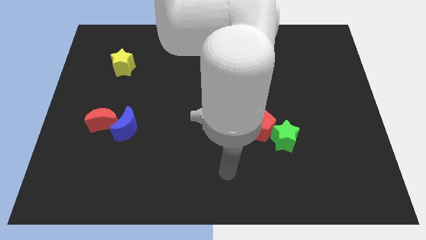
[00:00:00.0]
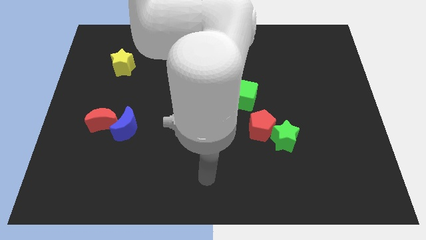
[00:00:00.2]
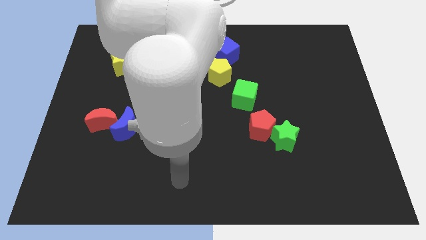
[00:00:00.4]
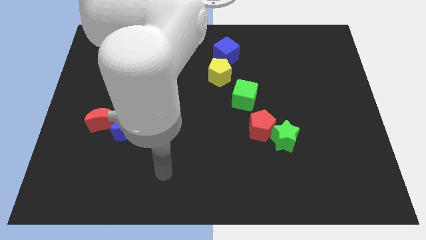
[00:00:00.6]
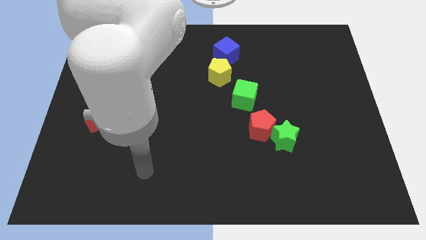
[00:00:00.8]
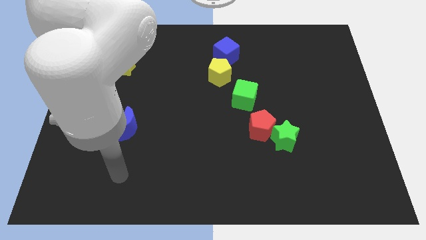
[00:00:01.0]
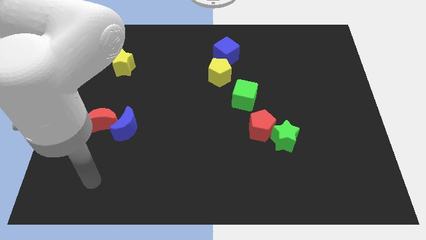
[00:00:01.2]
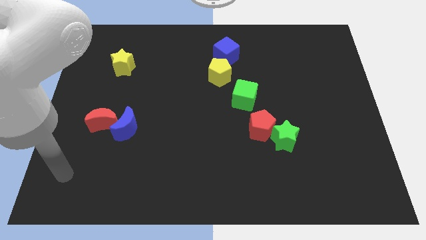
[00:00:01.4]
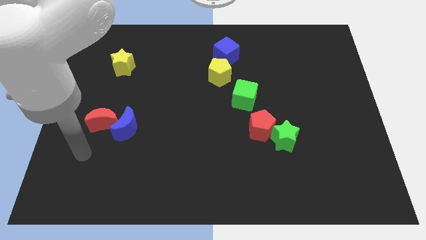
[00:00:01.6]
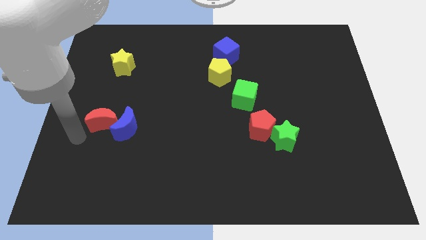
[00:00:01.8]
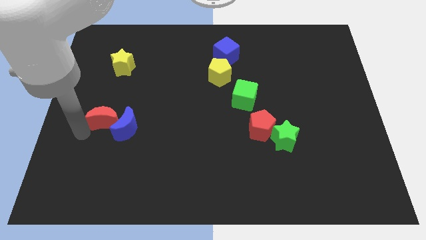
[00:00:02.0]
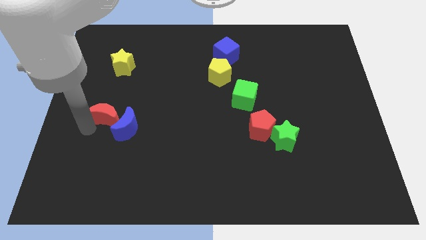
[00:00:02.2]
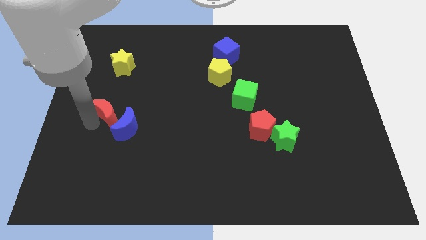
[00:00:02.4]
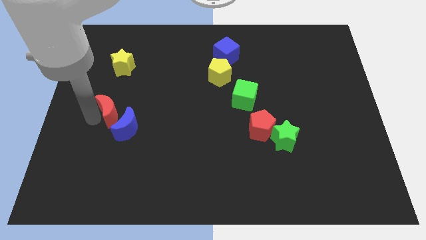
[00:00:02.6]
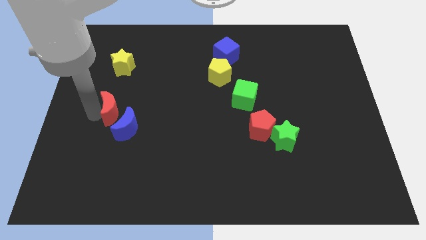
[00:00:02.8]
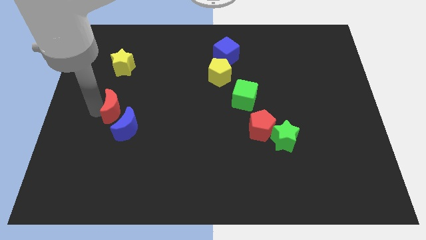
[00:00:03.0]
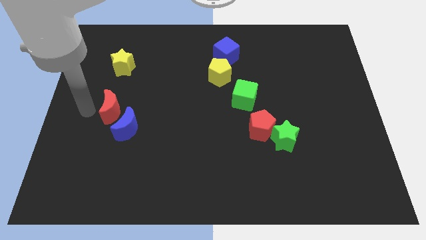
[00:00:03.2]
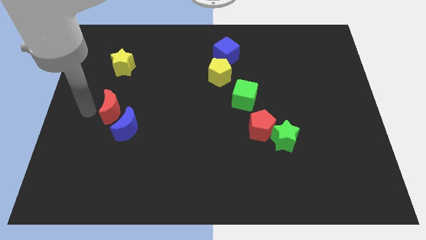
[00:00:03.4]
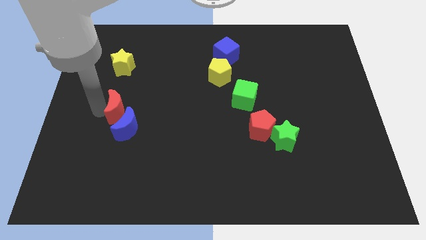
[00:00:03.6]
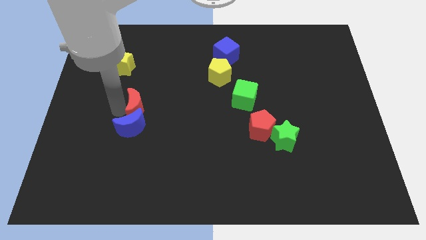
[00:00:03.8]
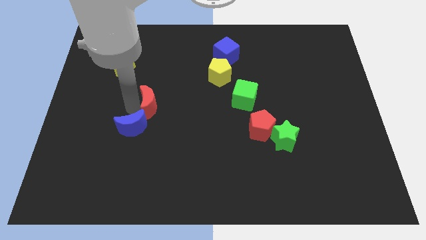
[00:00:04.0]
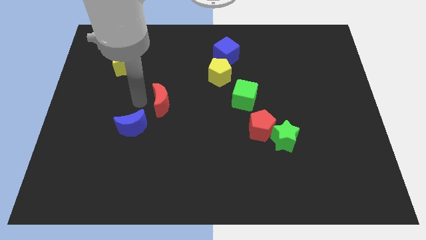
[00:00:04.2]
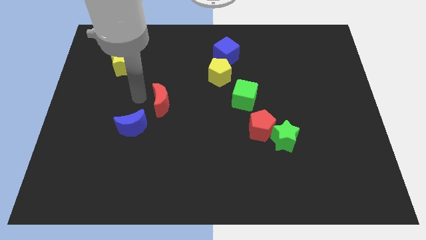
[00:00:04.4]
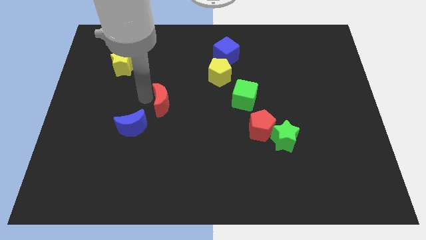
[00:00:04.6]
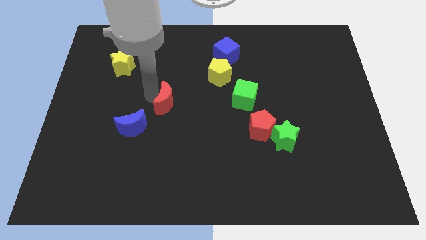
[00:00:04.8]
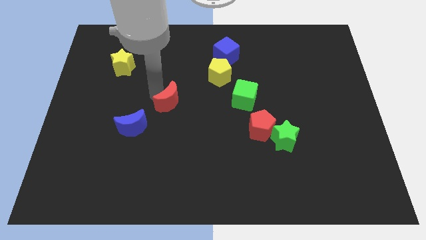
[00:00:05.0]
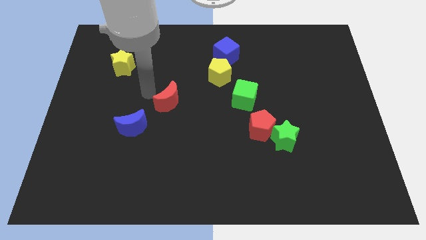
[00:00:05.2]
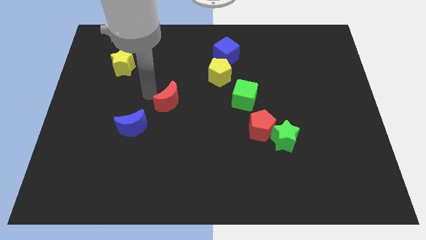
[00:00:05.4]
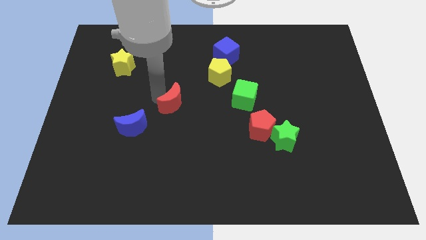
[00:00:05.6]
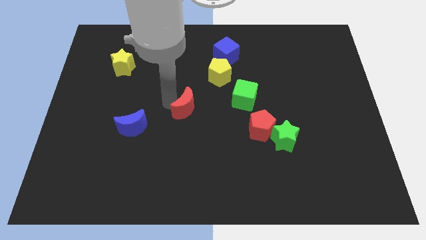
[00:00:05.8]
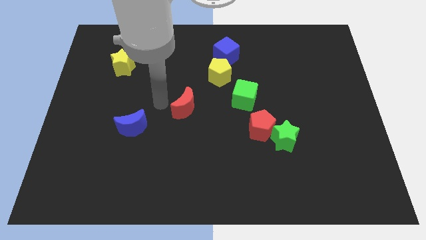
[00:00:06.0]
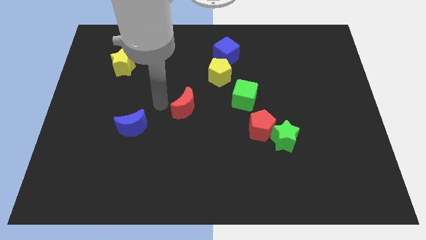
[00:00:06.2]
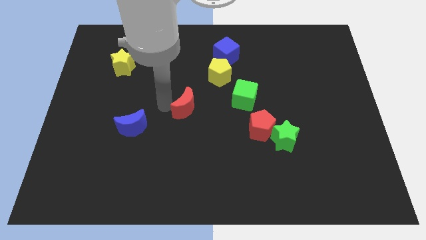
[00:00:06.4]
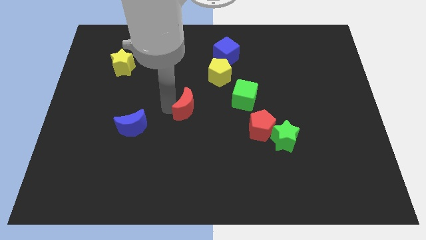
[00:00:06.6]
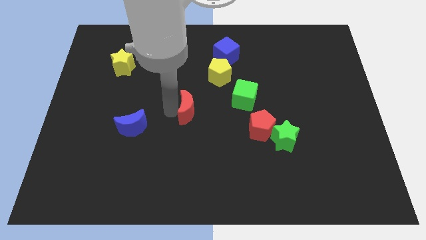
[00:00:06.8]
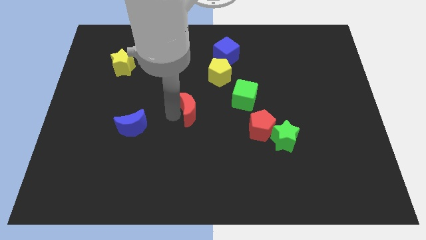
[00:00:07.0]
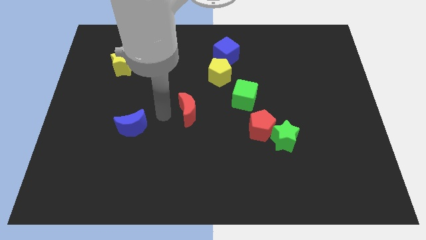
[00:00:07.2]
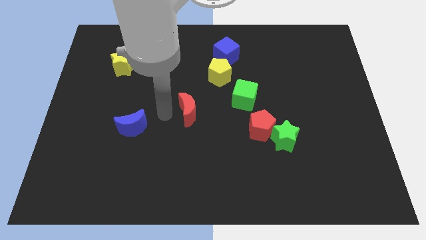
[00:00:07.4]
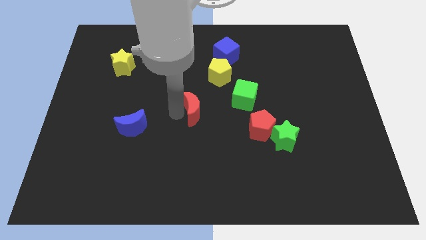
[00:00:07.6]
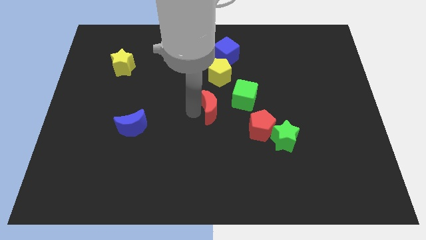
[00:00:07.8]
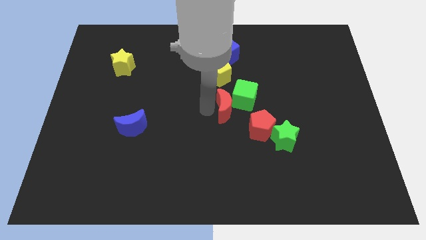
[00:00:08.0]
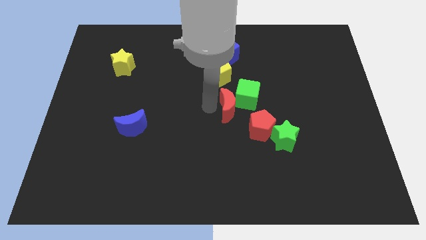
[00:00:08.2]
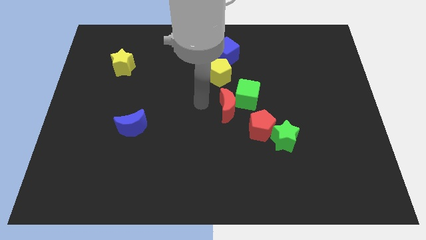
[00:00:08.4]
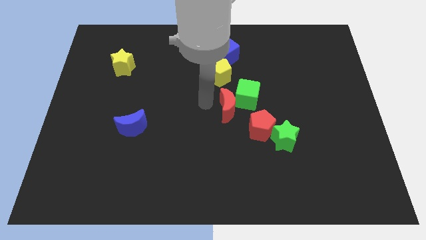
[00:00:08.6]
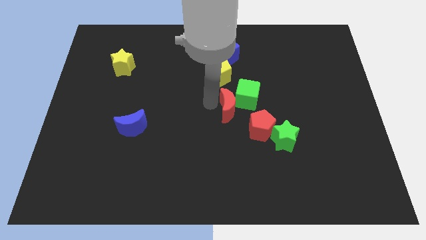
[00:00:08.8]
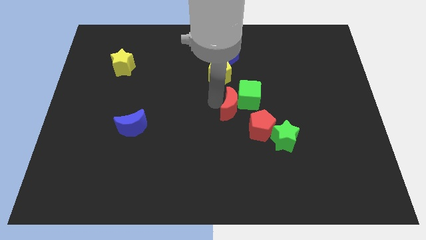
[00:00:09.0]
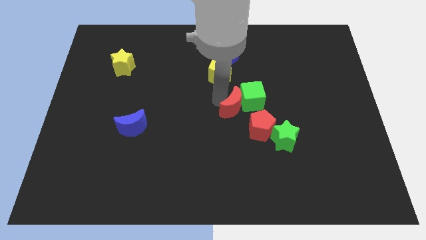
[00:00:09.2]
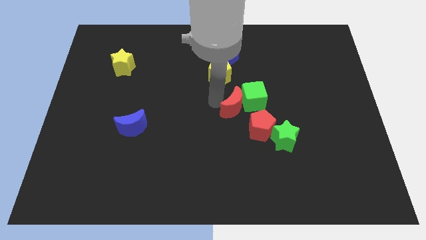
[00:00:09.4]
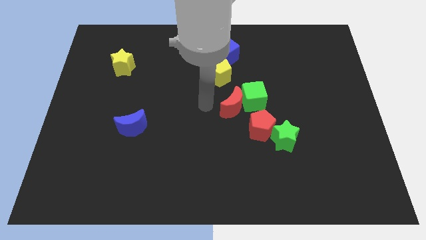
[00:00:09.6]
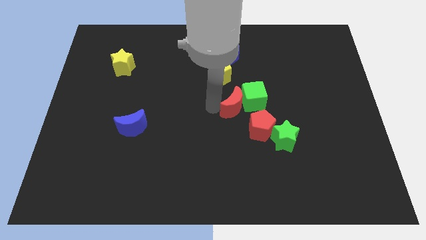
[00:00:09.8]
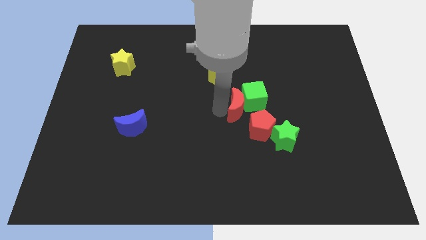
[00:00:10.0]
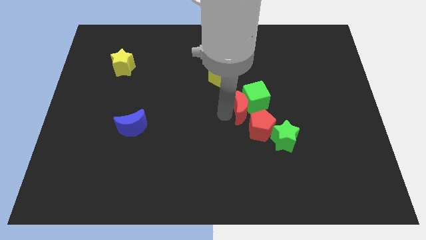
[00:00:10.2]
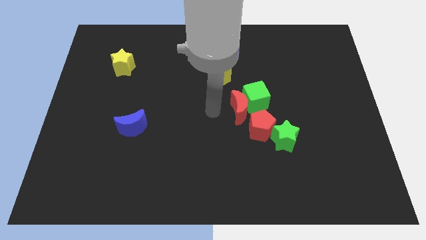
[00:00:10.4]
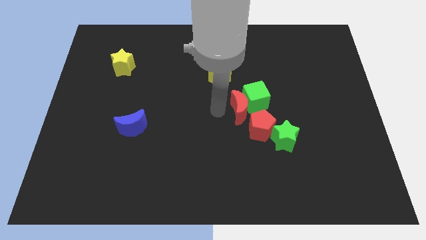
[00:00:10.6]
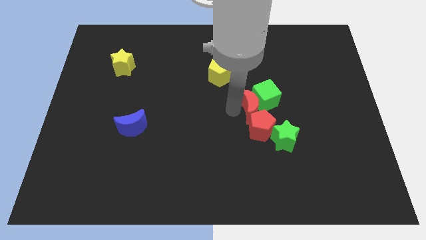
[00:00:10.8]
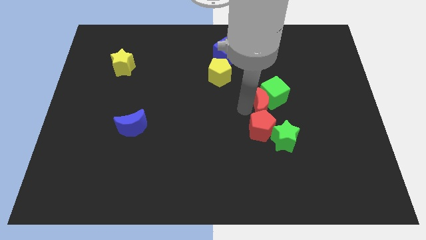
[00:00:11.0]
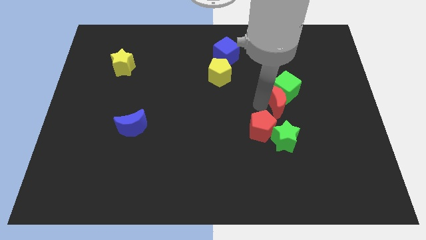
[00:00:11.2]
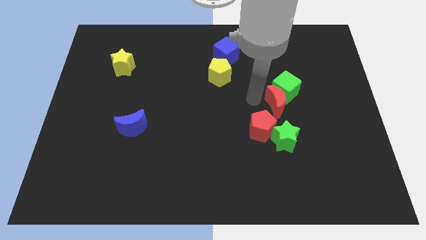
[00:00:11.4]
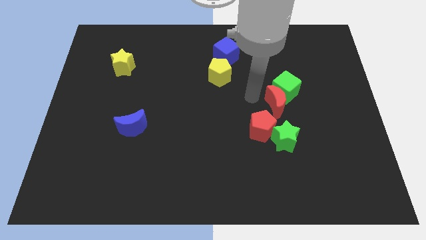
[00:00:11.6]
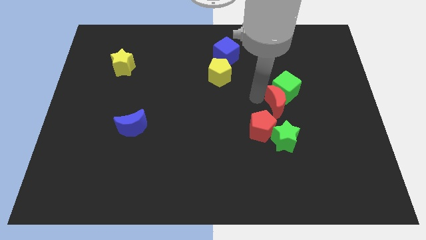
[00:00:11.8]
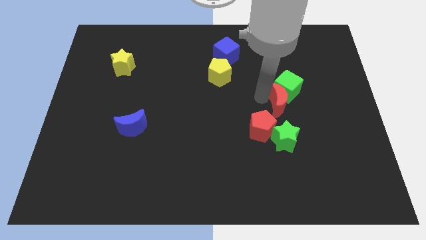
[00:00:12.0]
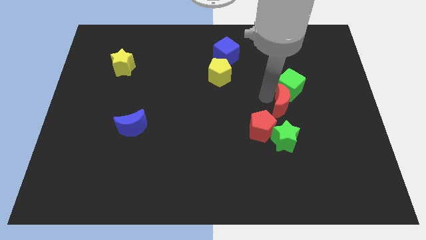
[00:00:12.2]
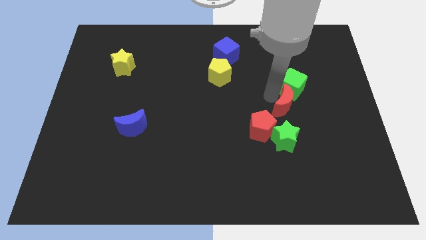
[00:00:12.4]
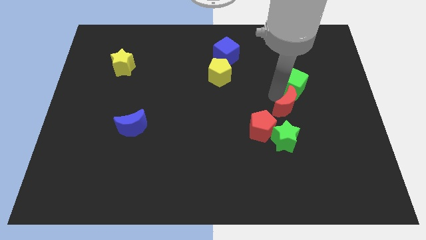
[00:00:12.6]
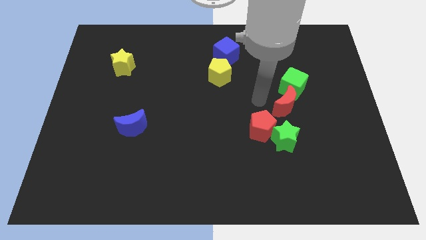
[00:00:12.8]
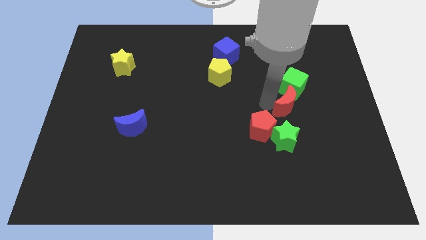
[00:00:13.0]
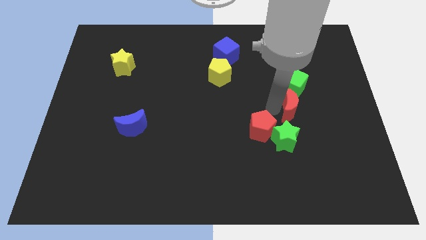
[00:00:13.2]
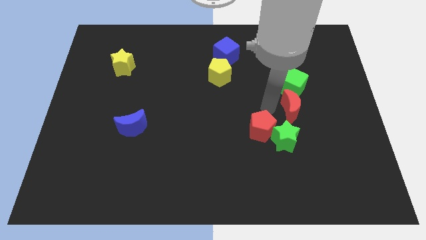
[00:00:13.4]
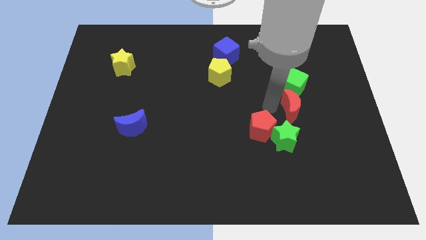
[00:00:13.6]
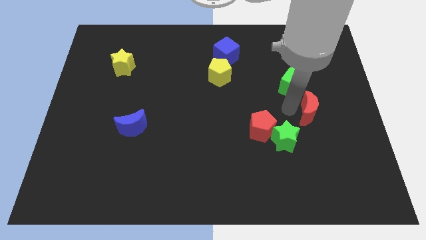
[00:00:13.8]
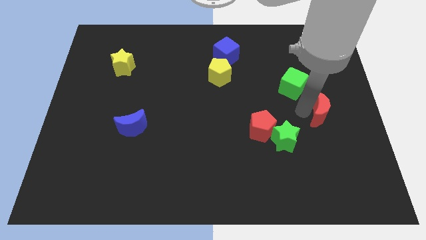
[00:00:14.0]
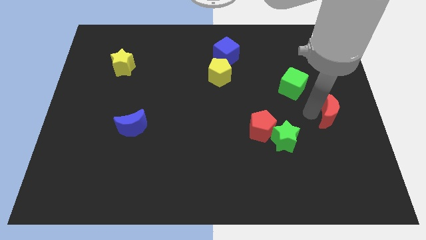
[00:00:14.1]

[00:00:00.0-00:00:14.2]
push the red moon to the right side

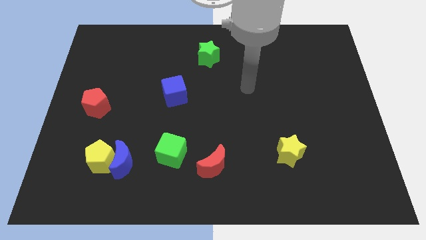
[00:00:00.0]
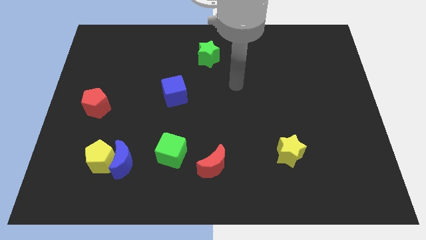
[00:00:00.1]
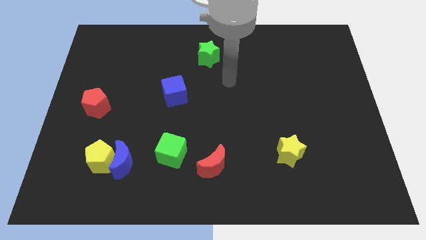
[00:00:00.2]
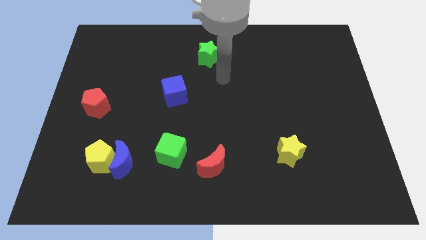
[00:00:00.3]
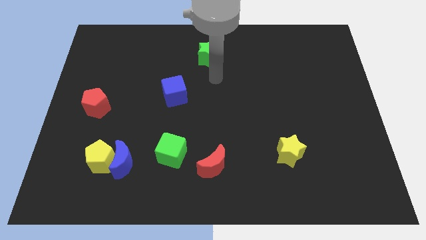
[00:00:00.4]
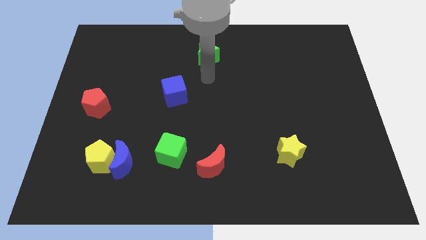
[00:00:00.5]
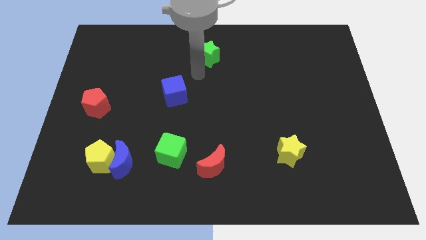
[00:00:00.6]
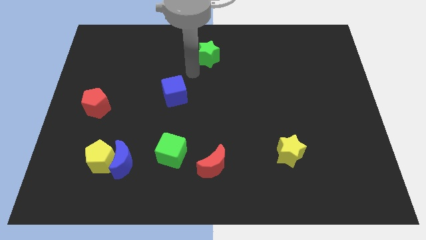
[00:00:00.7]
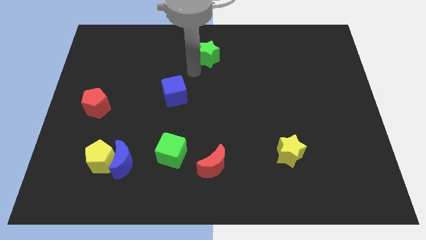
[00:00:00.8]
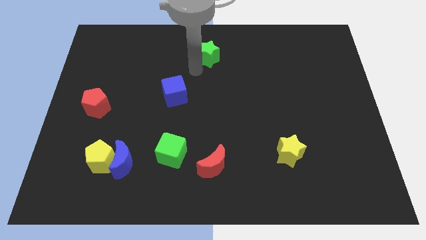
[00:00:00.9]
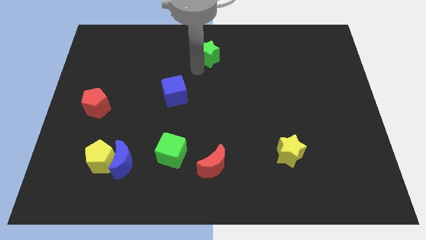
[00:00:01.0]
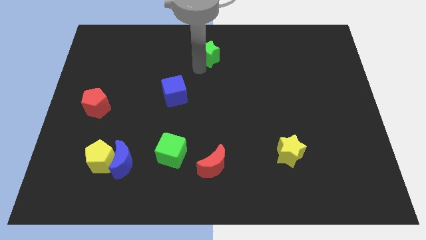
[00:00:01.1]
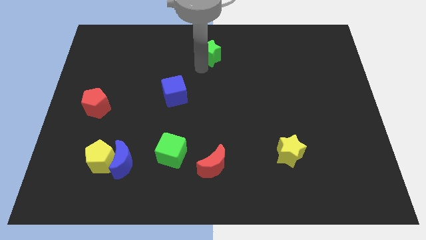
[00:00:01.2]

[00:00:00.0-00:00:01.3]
move the green star to the top side
